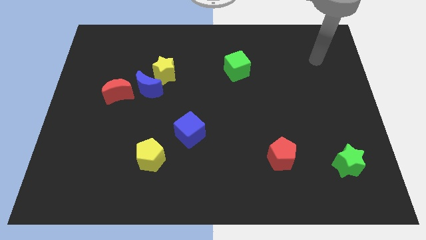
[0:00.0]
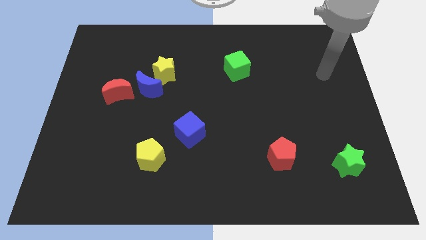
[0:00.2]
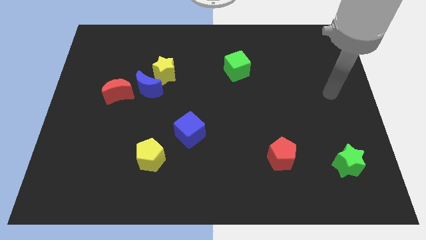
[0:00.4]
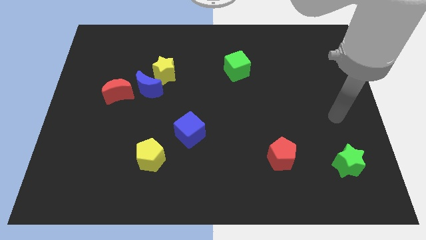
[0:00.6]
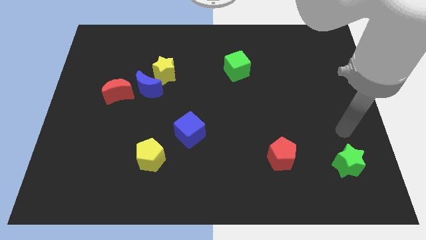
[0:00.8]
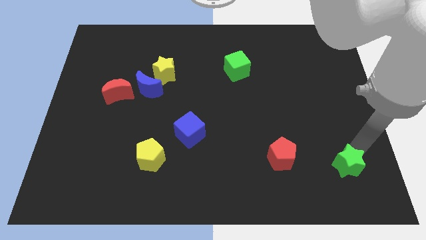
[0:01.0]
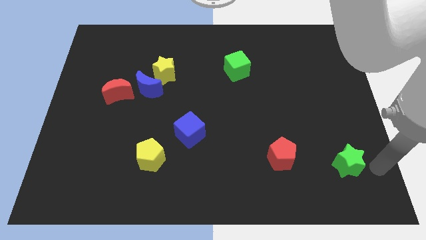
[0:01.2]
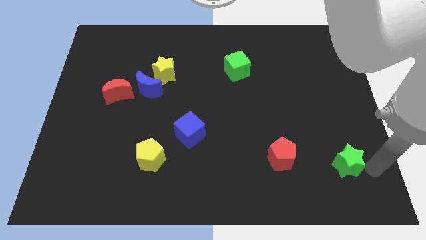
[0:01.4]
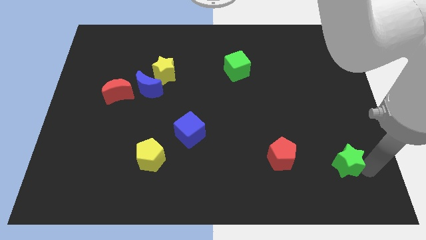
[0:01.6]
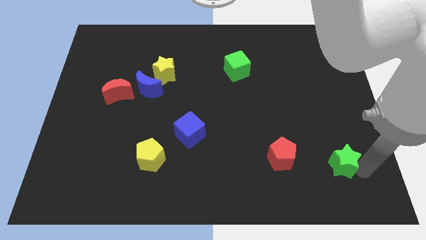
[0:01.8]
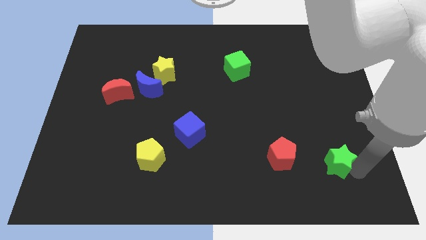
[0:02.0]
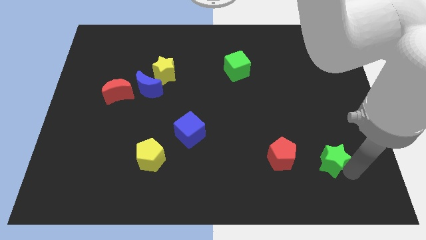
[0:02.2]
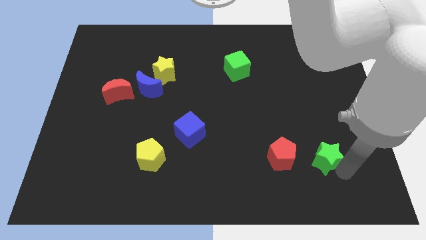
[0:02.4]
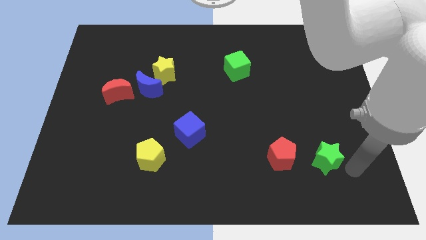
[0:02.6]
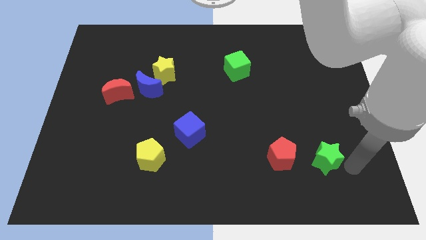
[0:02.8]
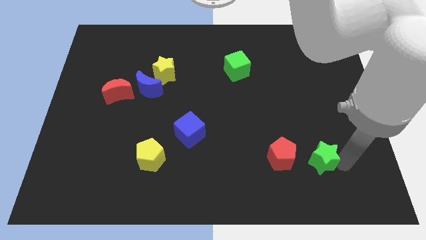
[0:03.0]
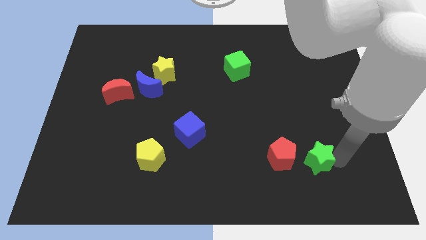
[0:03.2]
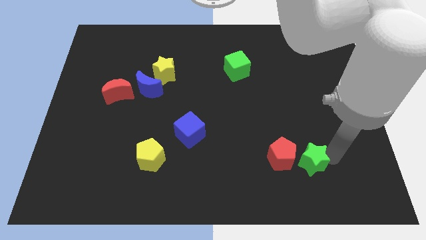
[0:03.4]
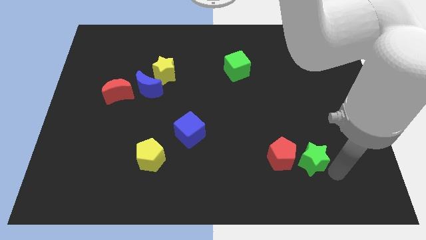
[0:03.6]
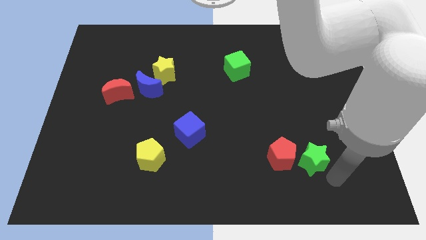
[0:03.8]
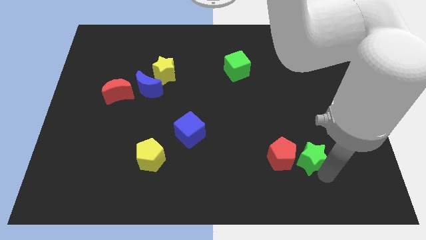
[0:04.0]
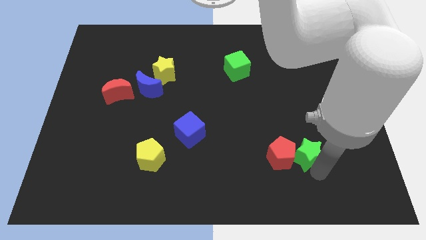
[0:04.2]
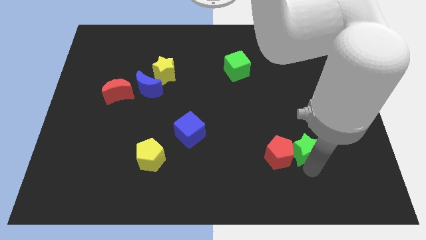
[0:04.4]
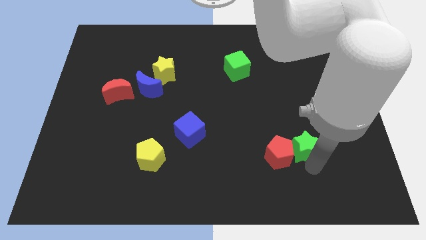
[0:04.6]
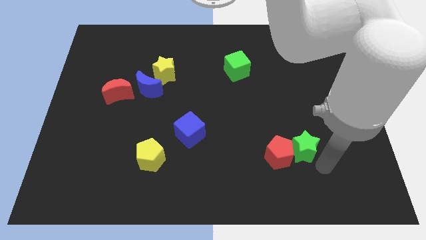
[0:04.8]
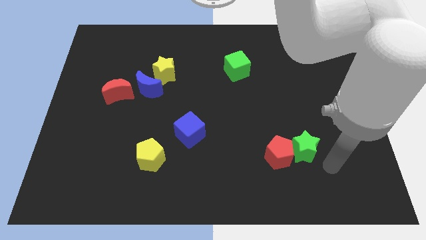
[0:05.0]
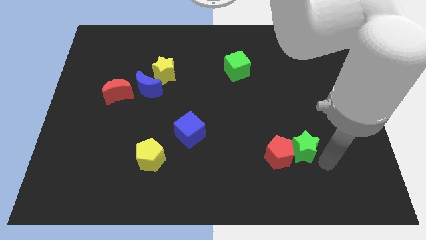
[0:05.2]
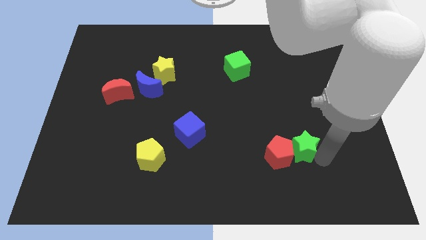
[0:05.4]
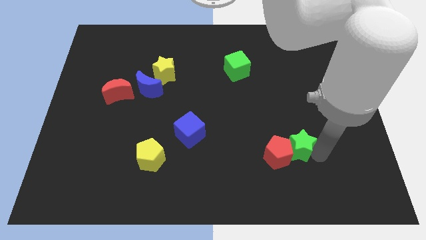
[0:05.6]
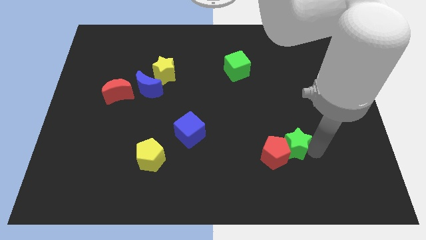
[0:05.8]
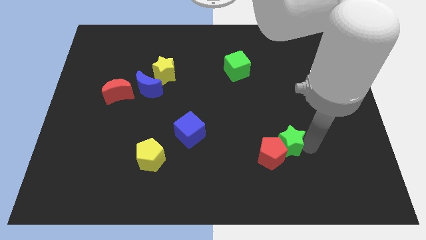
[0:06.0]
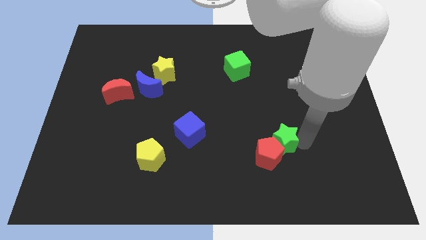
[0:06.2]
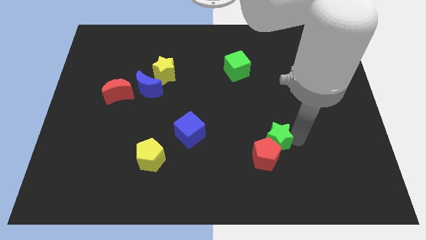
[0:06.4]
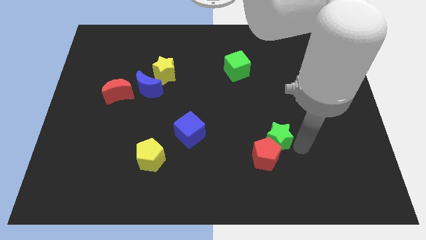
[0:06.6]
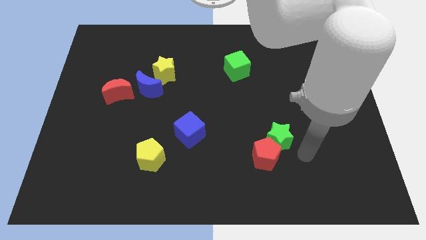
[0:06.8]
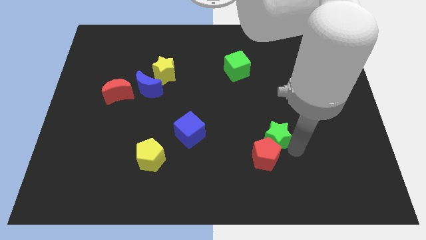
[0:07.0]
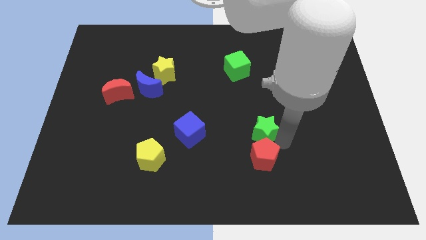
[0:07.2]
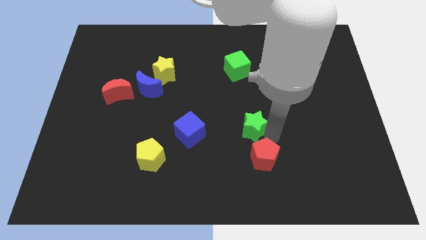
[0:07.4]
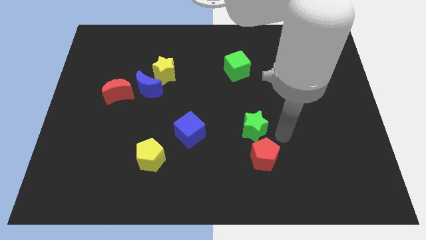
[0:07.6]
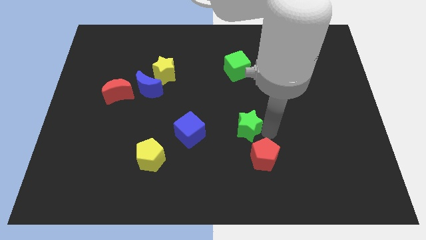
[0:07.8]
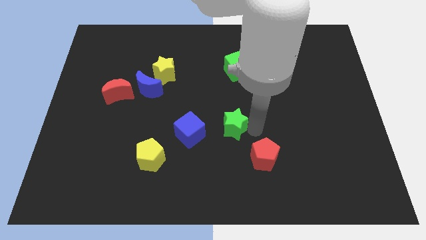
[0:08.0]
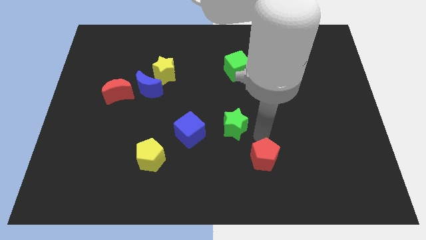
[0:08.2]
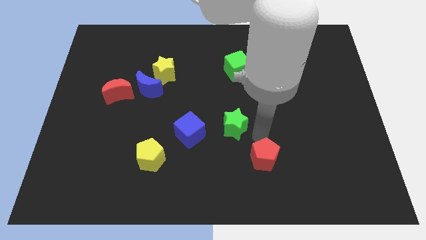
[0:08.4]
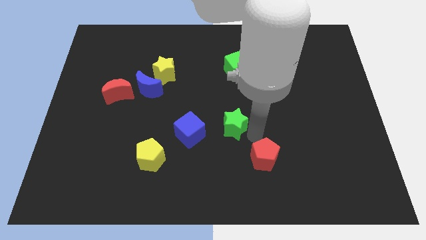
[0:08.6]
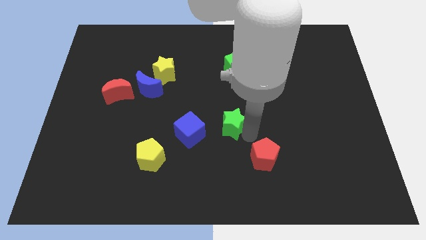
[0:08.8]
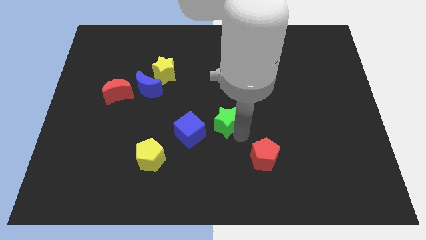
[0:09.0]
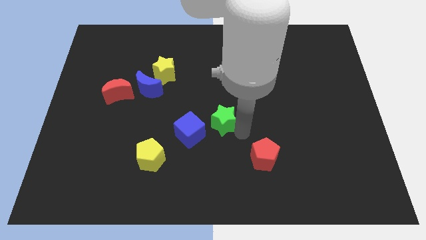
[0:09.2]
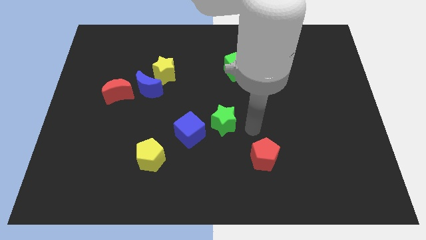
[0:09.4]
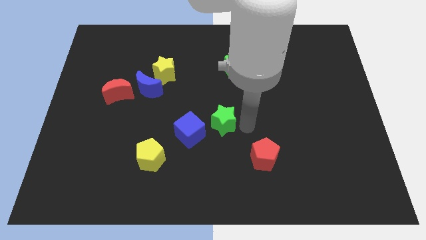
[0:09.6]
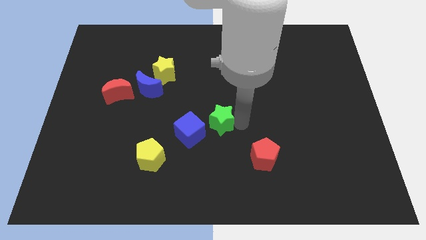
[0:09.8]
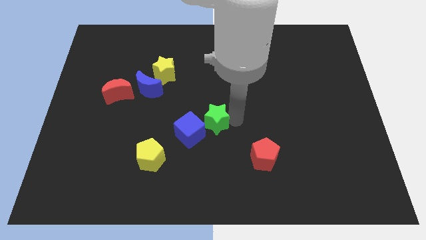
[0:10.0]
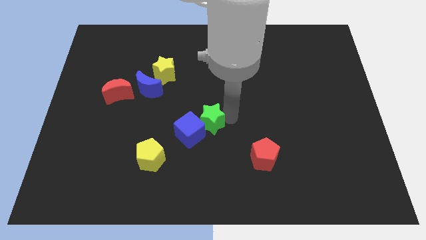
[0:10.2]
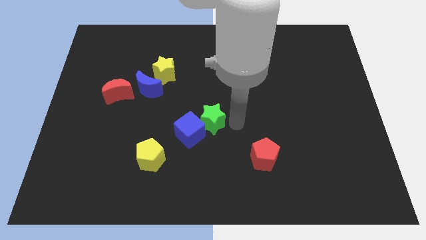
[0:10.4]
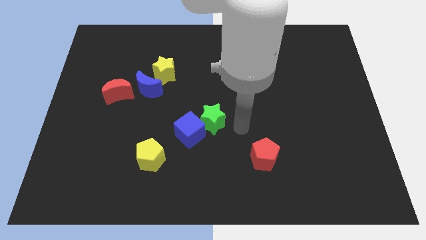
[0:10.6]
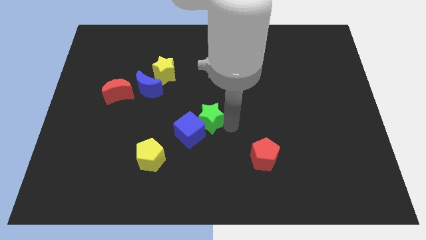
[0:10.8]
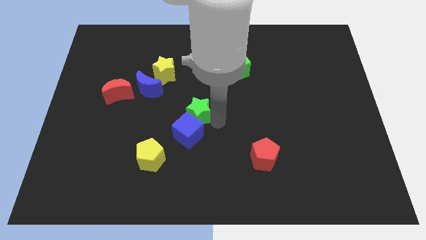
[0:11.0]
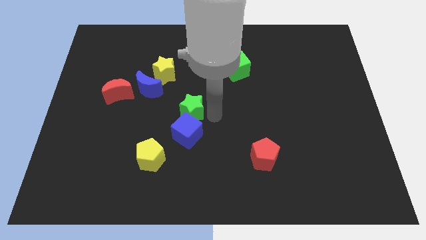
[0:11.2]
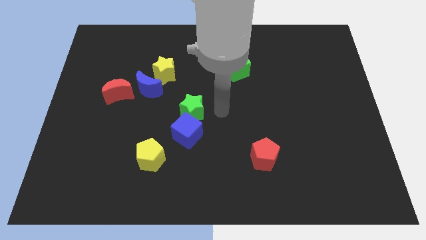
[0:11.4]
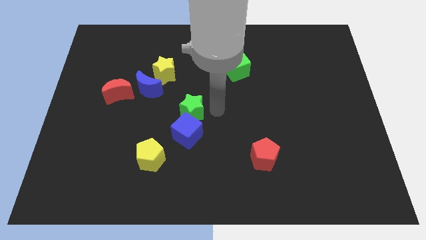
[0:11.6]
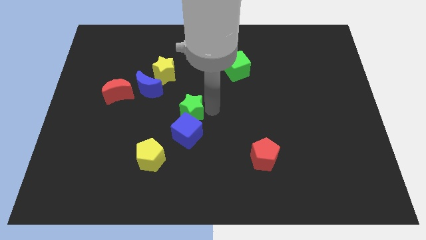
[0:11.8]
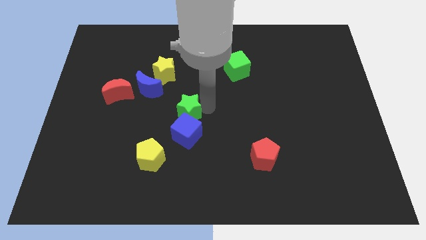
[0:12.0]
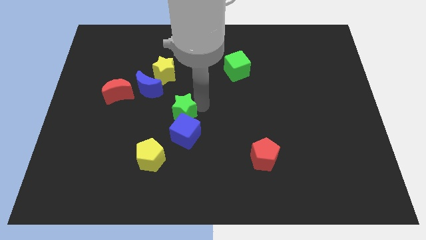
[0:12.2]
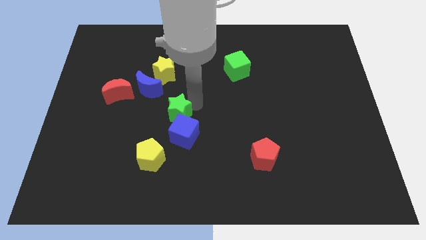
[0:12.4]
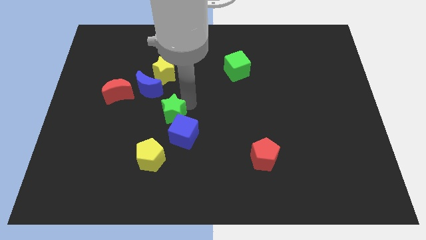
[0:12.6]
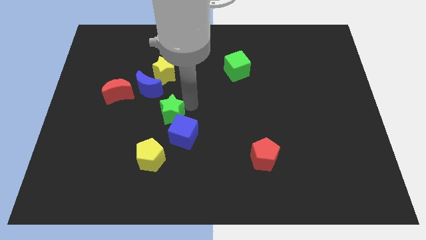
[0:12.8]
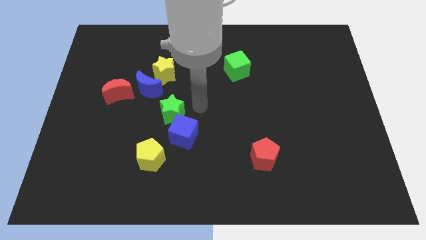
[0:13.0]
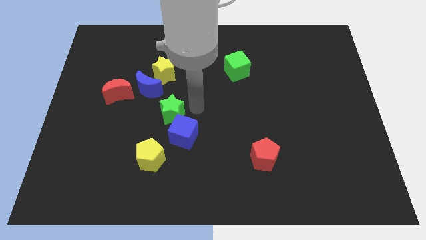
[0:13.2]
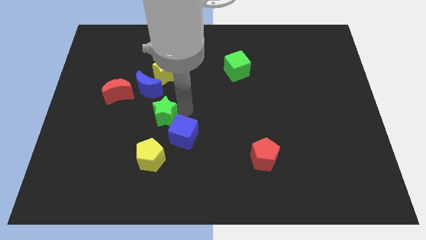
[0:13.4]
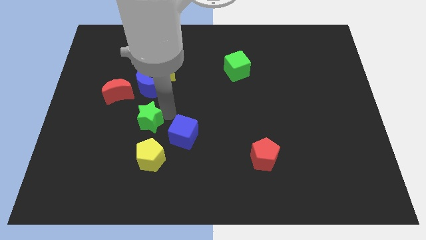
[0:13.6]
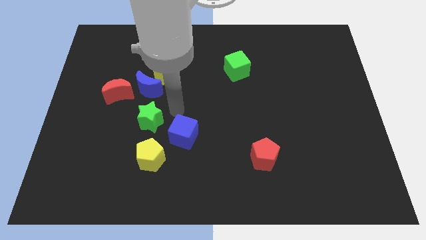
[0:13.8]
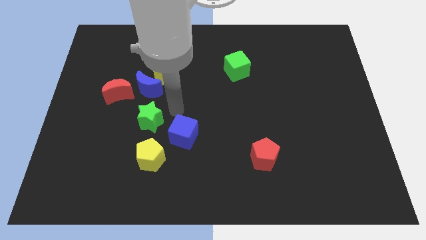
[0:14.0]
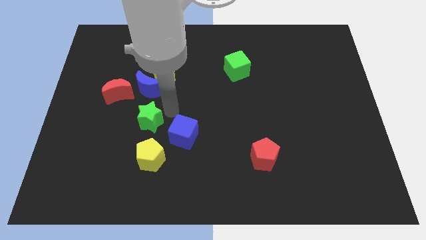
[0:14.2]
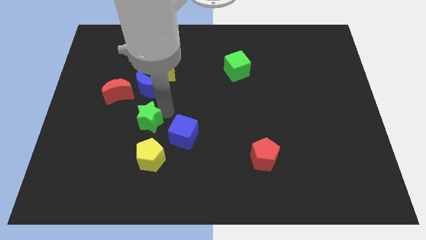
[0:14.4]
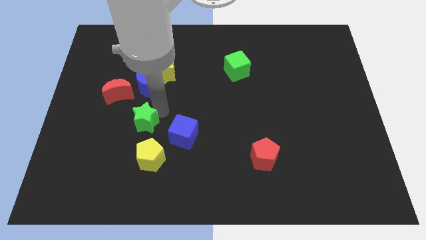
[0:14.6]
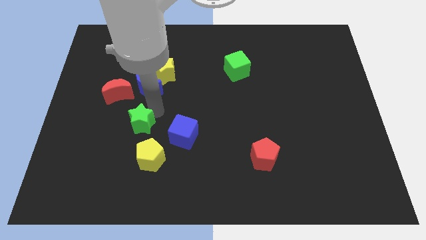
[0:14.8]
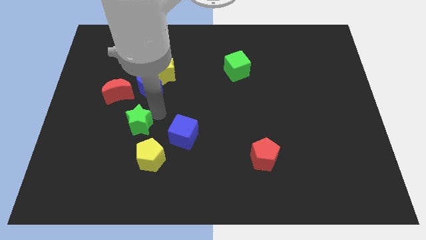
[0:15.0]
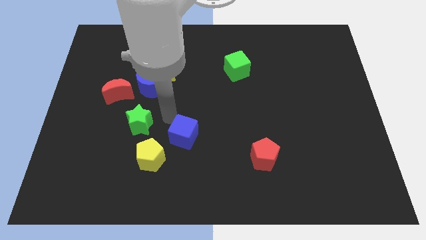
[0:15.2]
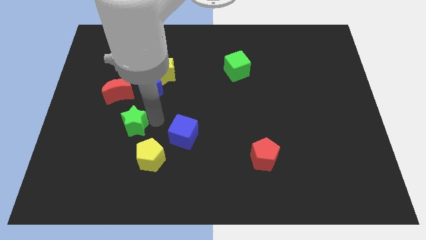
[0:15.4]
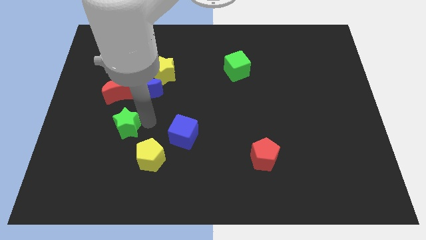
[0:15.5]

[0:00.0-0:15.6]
slide the green star to the bottom side of the red moon
